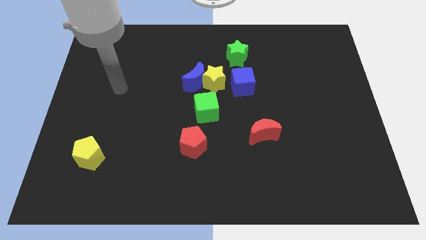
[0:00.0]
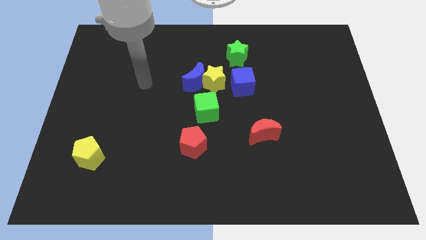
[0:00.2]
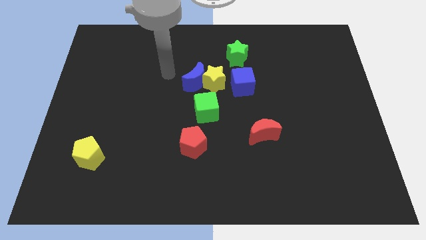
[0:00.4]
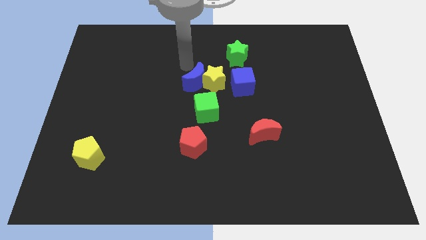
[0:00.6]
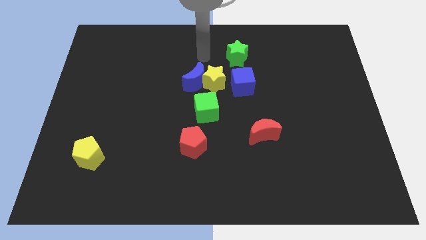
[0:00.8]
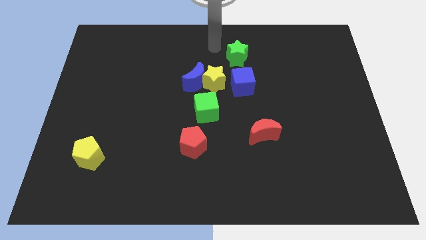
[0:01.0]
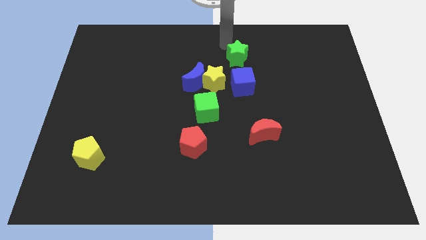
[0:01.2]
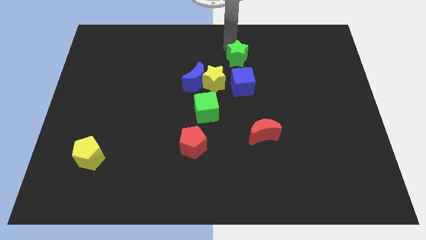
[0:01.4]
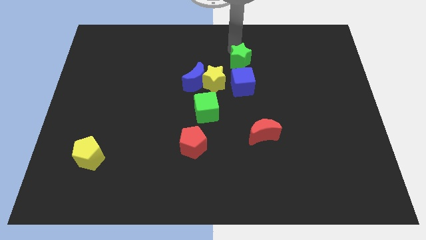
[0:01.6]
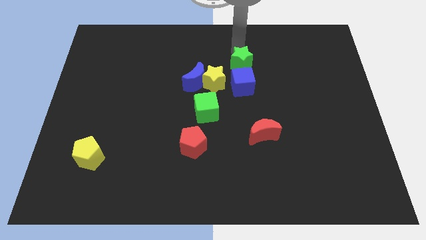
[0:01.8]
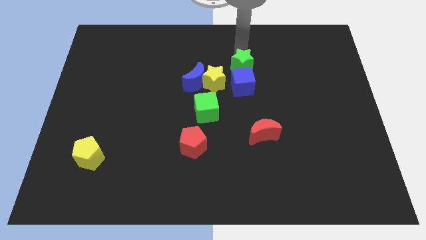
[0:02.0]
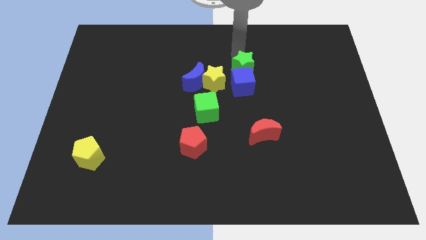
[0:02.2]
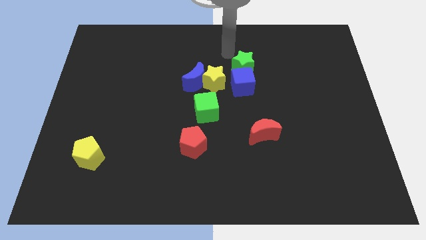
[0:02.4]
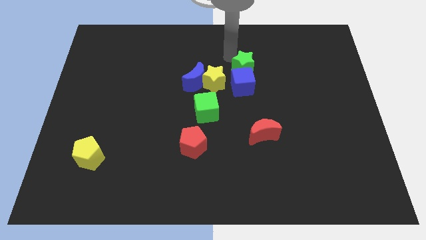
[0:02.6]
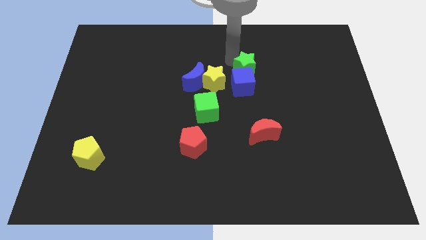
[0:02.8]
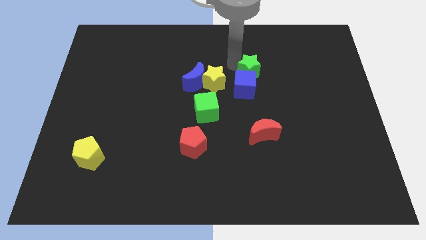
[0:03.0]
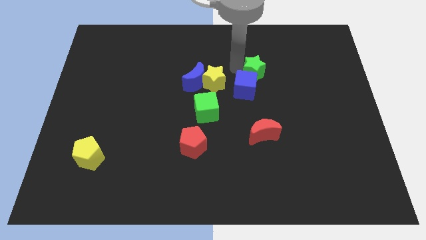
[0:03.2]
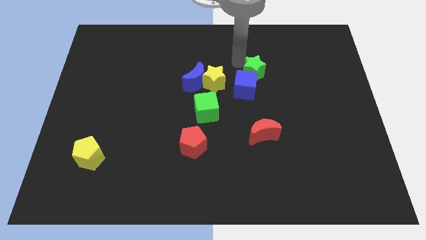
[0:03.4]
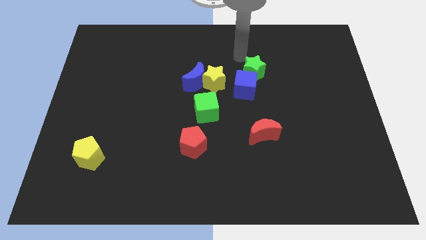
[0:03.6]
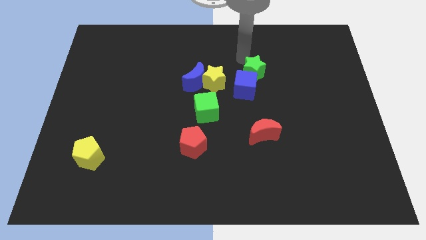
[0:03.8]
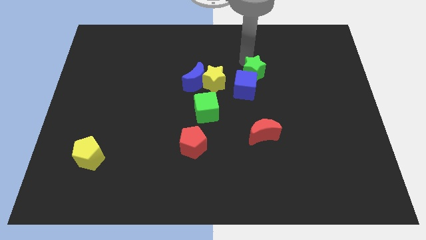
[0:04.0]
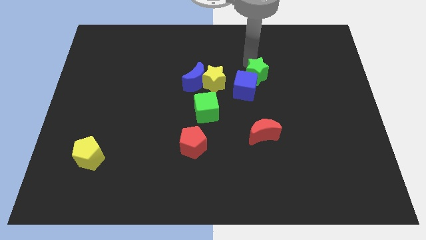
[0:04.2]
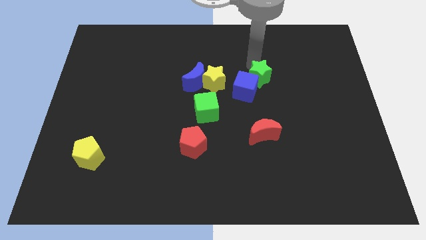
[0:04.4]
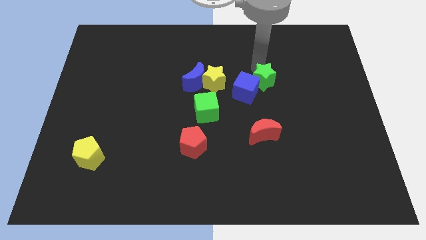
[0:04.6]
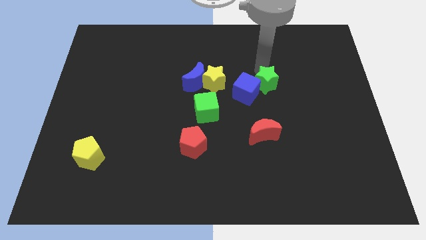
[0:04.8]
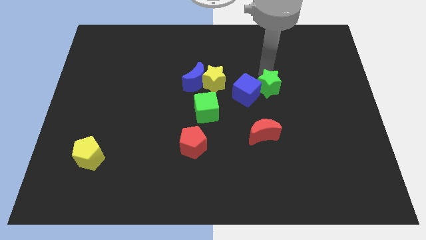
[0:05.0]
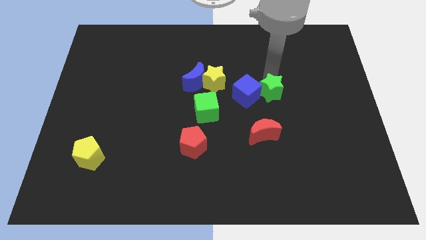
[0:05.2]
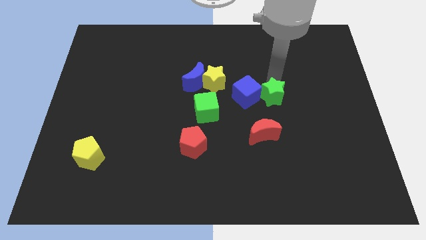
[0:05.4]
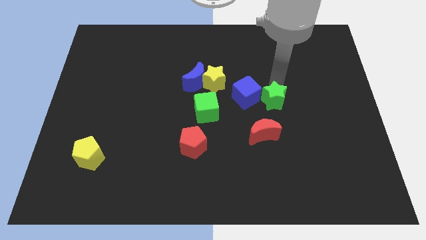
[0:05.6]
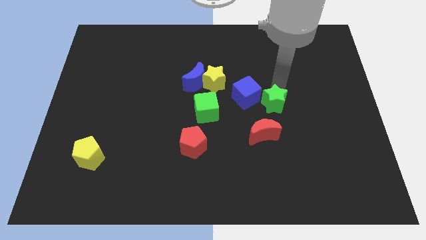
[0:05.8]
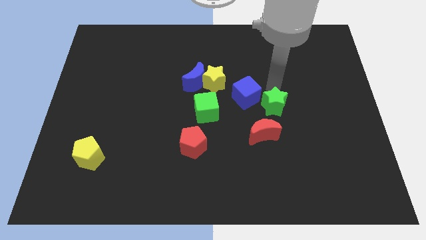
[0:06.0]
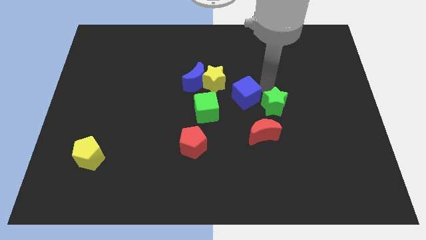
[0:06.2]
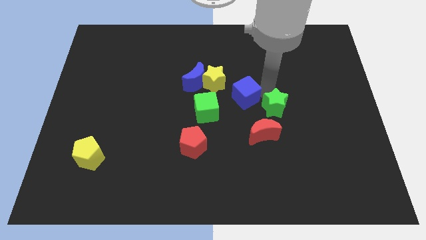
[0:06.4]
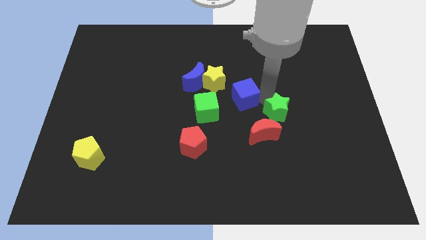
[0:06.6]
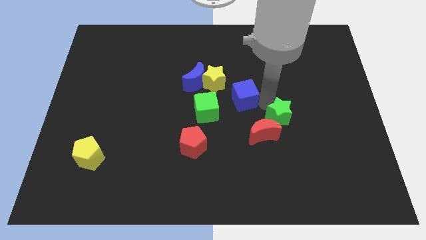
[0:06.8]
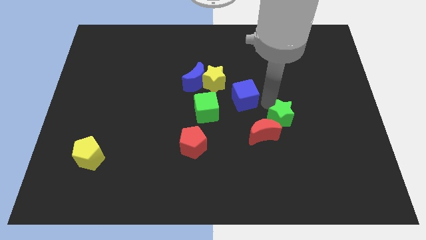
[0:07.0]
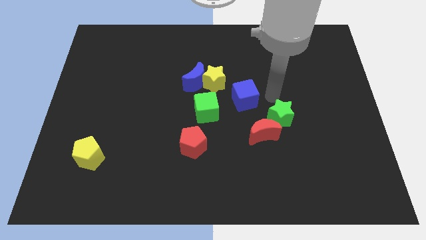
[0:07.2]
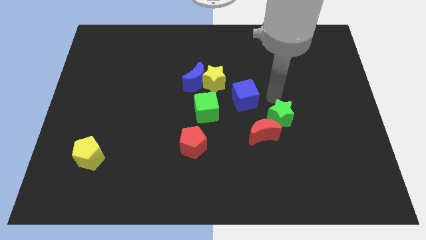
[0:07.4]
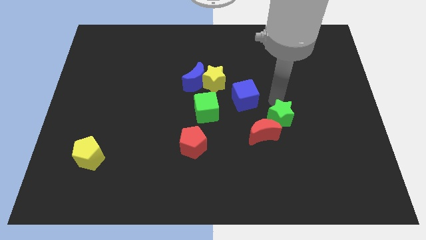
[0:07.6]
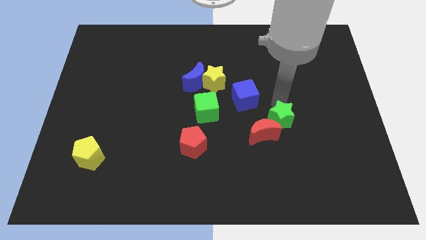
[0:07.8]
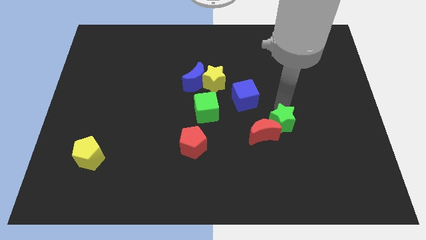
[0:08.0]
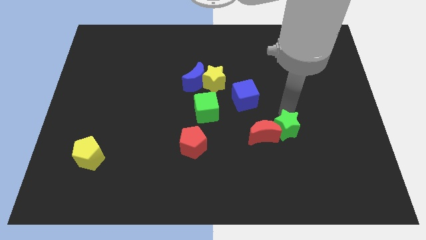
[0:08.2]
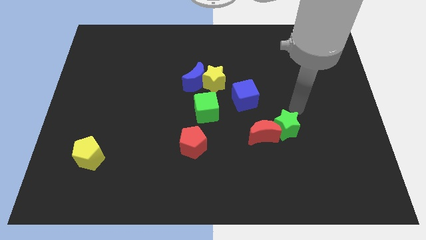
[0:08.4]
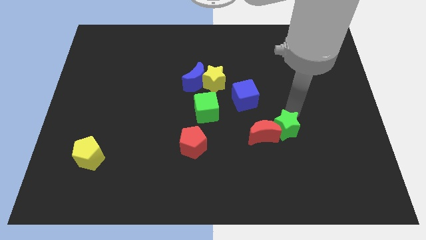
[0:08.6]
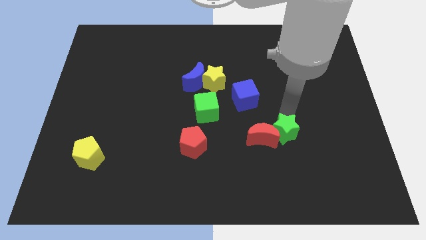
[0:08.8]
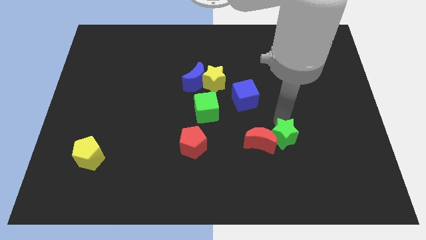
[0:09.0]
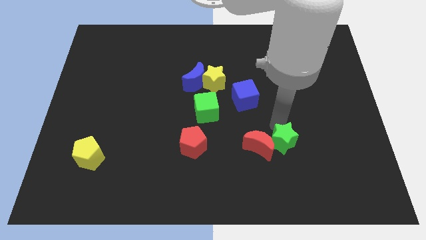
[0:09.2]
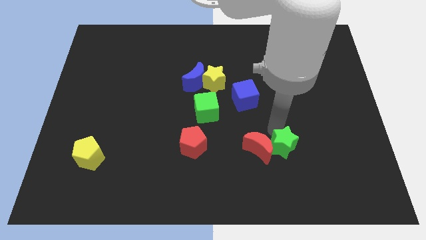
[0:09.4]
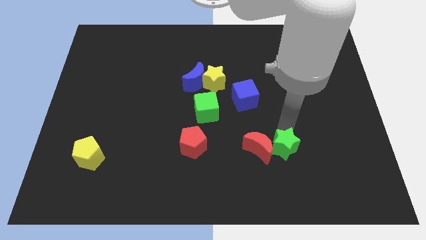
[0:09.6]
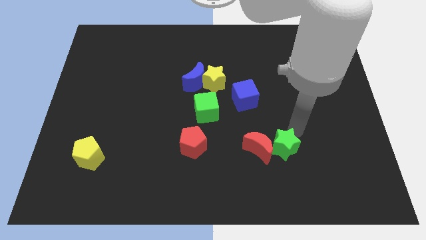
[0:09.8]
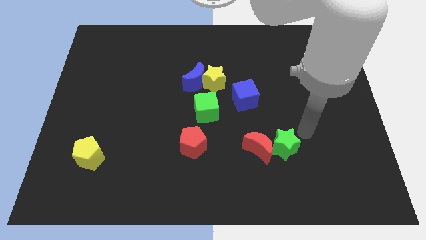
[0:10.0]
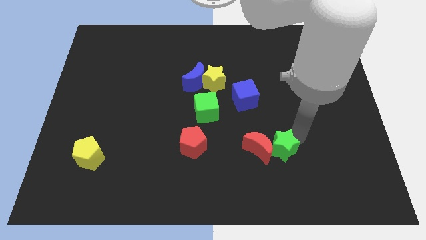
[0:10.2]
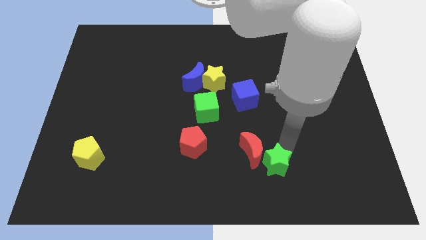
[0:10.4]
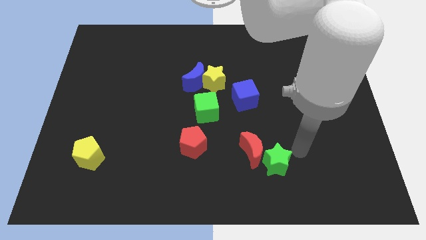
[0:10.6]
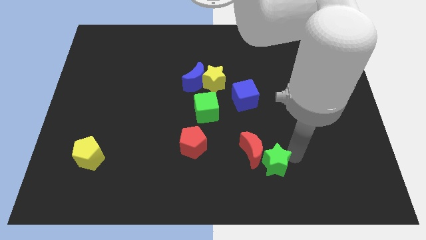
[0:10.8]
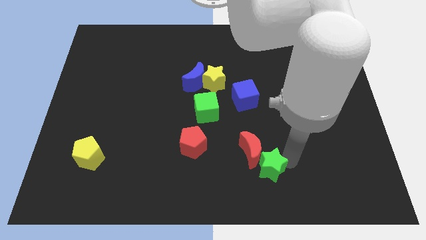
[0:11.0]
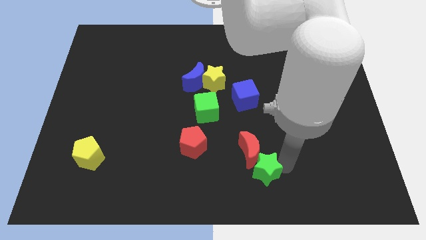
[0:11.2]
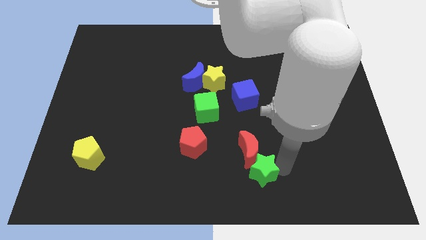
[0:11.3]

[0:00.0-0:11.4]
slide the green star to the bottom side
